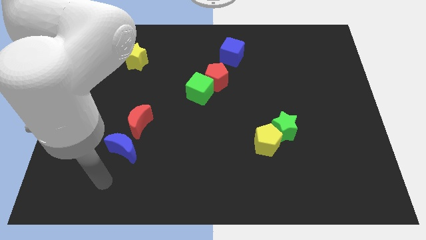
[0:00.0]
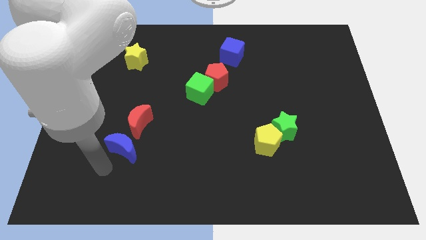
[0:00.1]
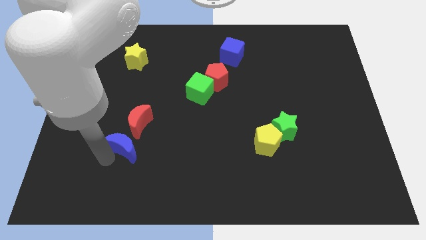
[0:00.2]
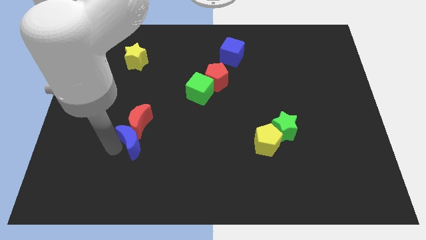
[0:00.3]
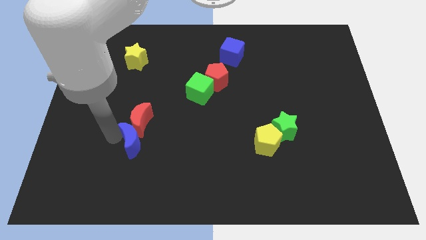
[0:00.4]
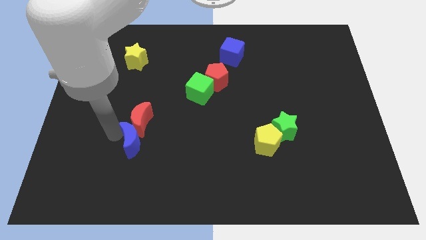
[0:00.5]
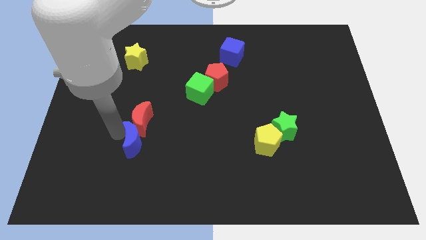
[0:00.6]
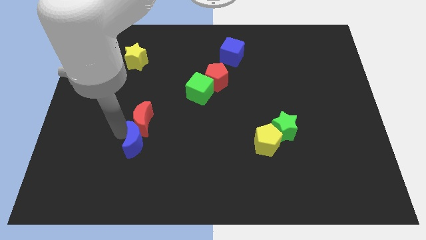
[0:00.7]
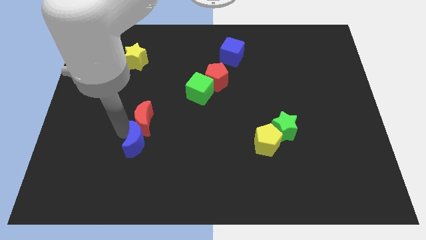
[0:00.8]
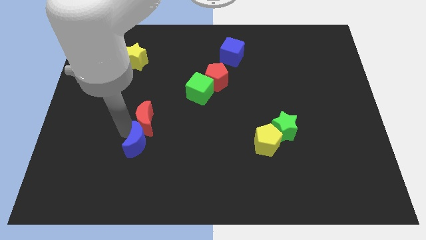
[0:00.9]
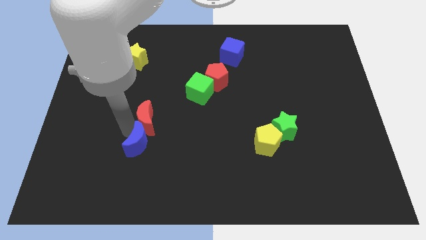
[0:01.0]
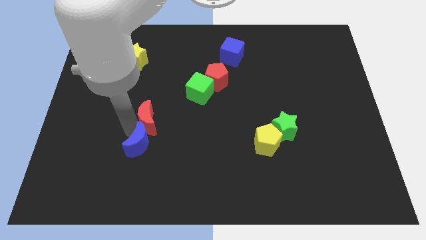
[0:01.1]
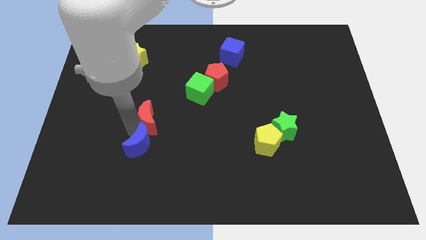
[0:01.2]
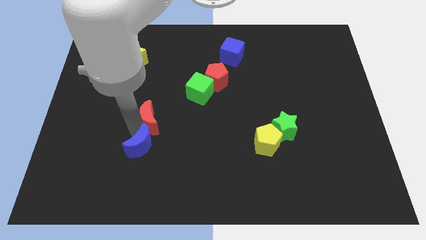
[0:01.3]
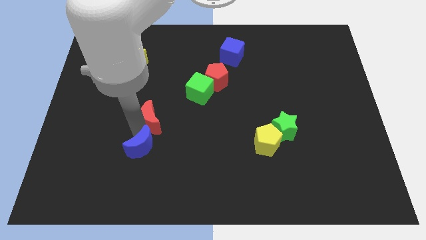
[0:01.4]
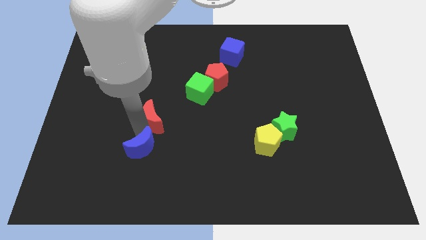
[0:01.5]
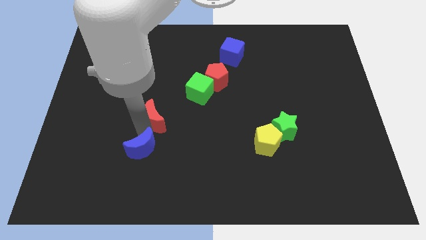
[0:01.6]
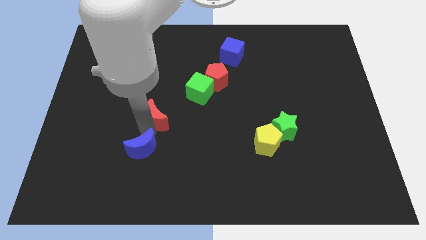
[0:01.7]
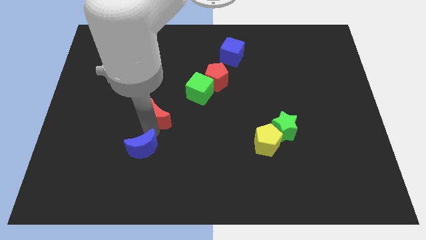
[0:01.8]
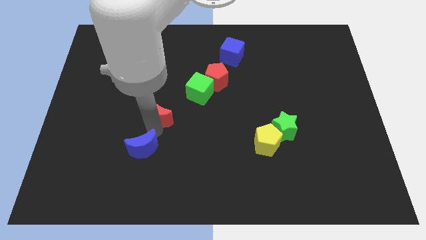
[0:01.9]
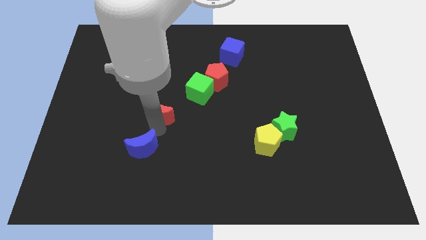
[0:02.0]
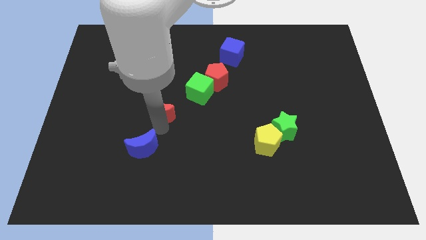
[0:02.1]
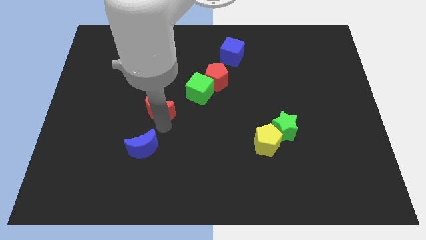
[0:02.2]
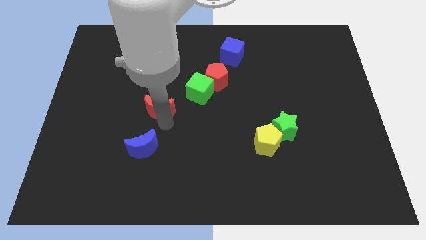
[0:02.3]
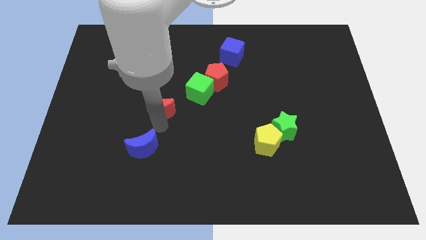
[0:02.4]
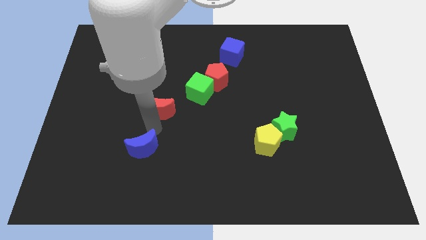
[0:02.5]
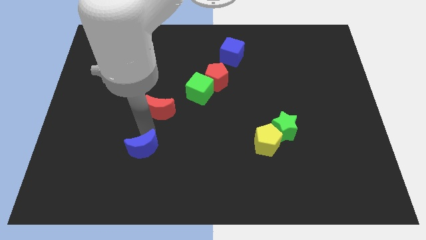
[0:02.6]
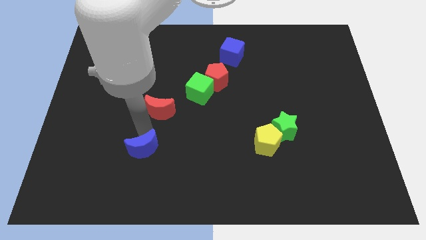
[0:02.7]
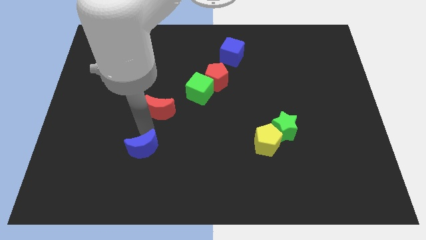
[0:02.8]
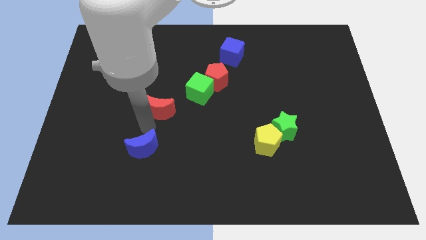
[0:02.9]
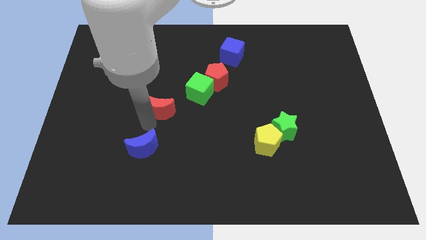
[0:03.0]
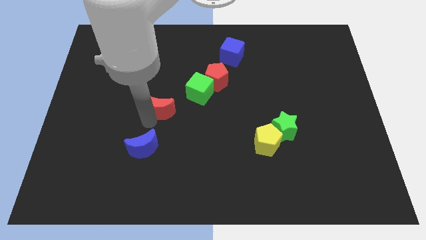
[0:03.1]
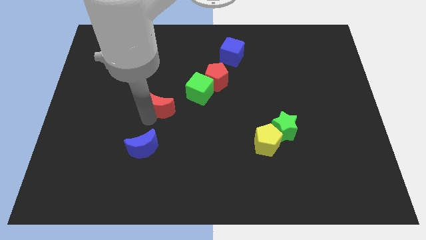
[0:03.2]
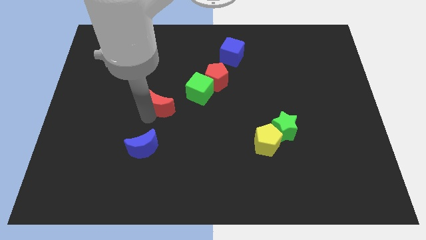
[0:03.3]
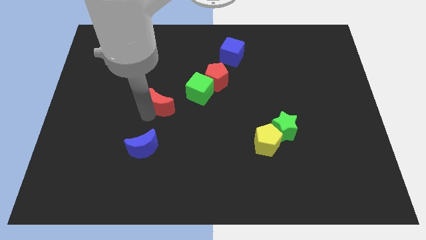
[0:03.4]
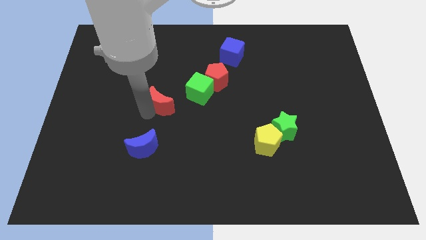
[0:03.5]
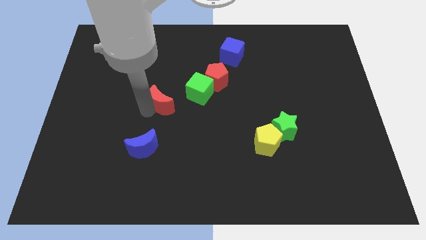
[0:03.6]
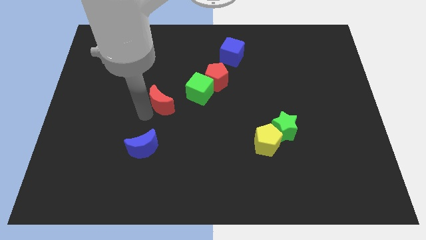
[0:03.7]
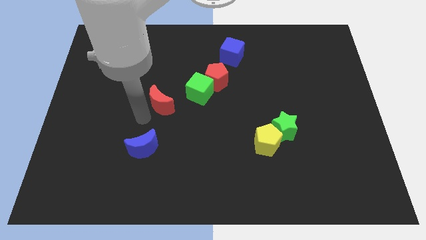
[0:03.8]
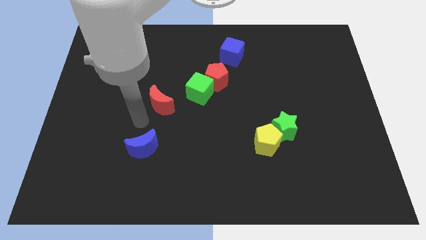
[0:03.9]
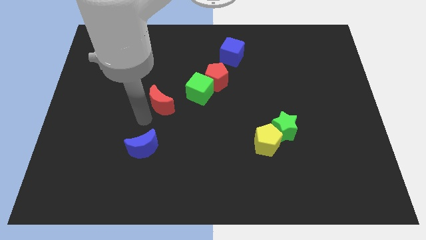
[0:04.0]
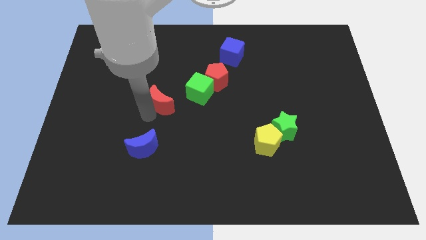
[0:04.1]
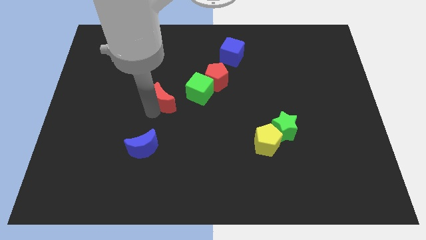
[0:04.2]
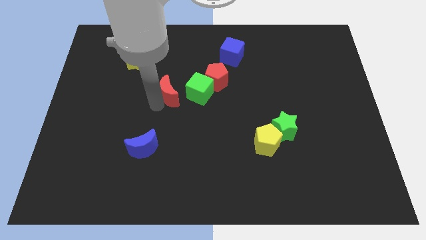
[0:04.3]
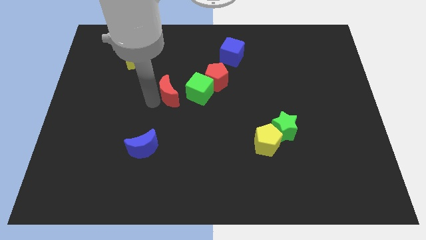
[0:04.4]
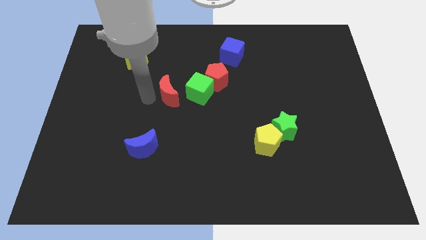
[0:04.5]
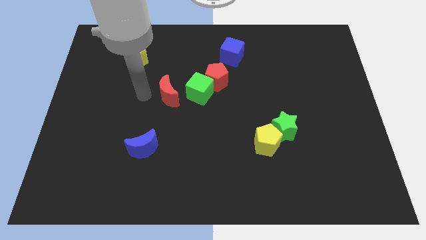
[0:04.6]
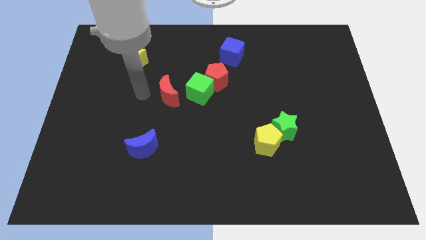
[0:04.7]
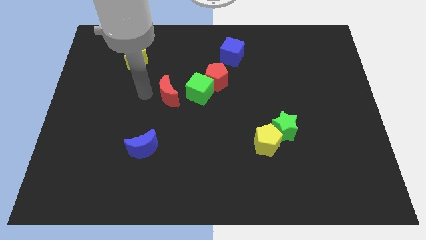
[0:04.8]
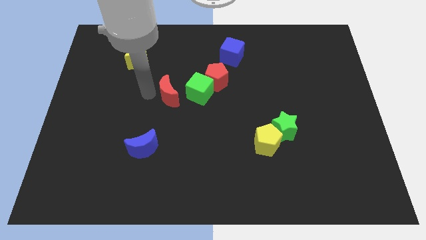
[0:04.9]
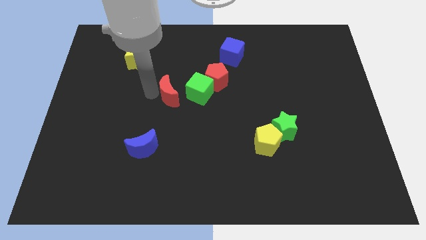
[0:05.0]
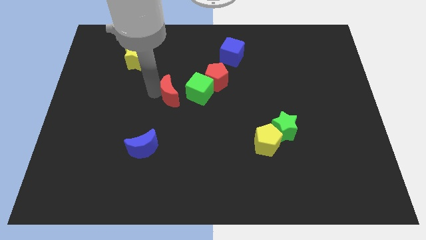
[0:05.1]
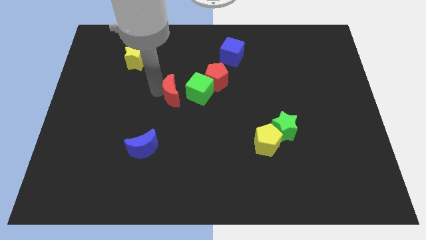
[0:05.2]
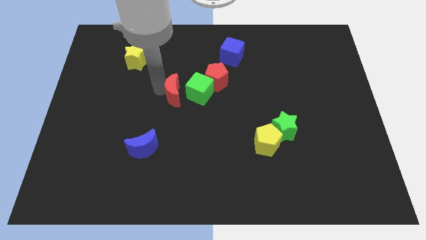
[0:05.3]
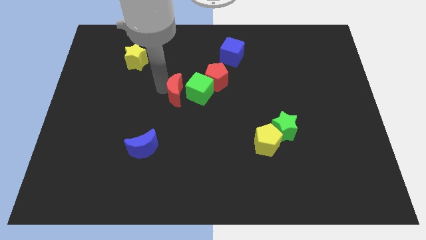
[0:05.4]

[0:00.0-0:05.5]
put the red moon to the bottom left of the red pentagon

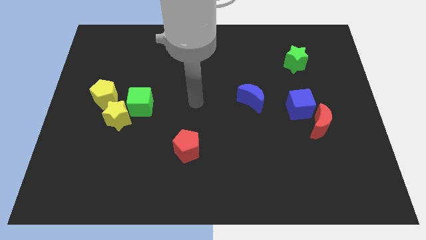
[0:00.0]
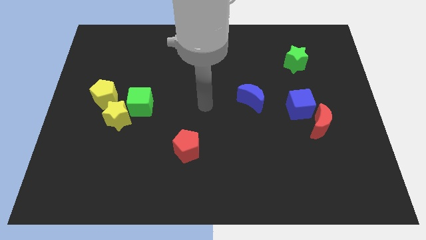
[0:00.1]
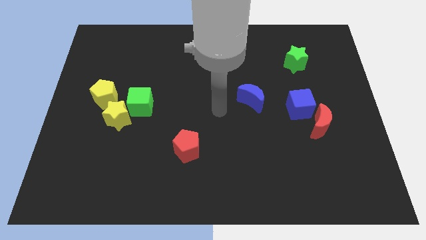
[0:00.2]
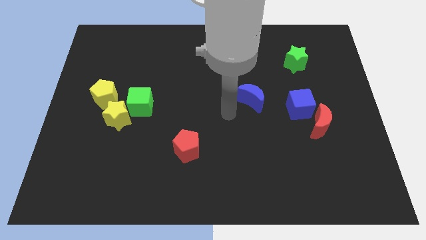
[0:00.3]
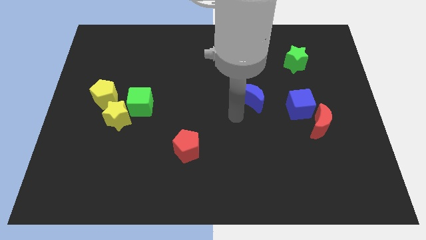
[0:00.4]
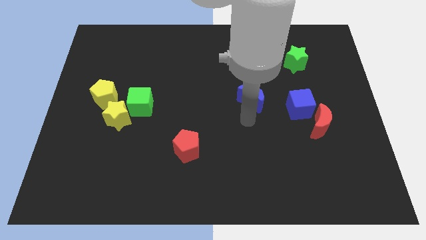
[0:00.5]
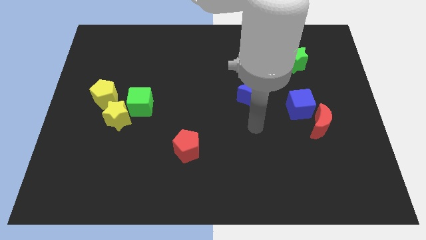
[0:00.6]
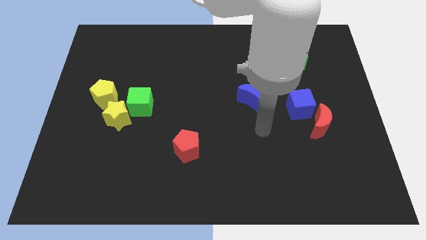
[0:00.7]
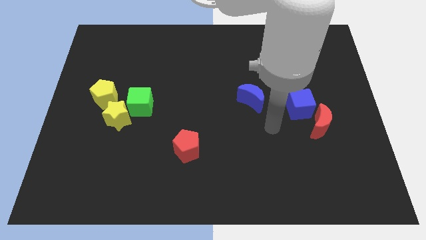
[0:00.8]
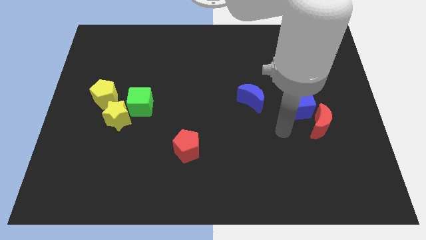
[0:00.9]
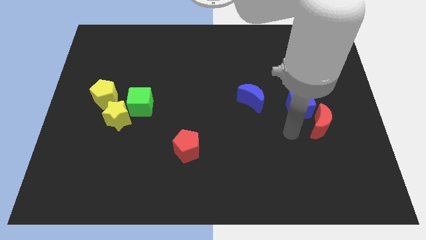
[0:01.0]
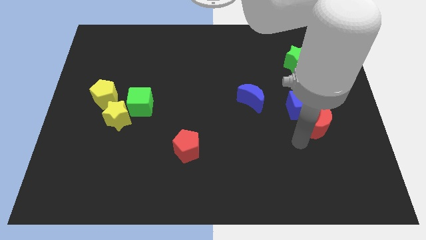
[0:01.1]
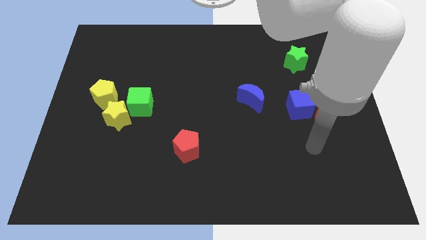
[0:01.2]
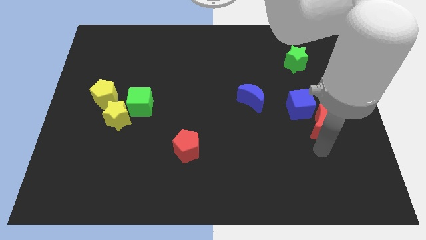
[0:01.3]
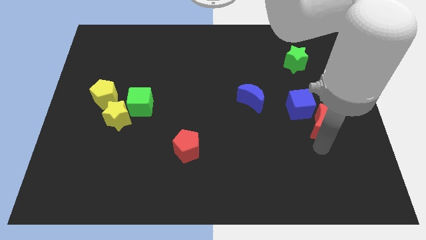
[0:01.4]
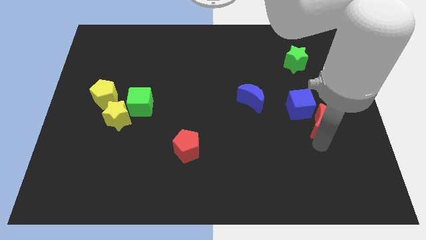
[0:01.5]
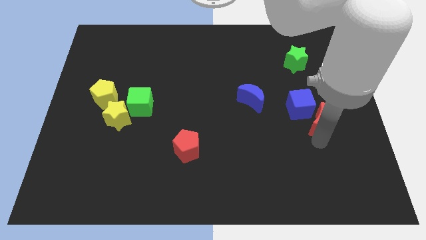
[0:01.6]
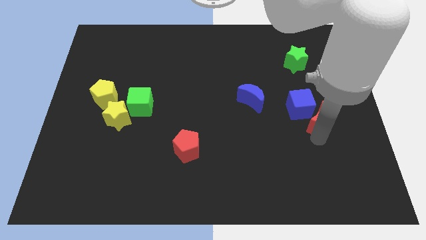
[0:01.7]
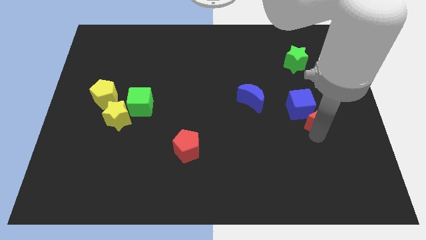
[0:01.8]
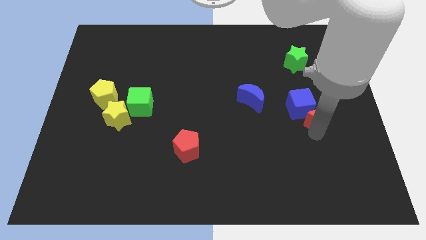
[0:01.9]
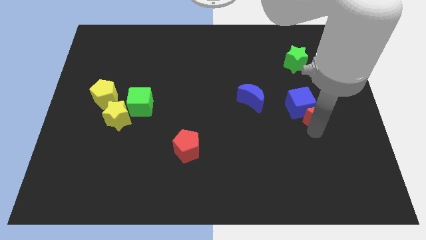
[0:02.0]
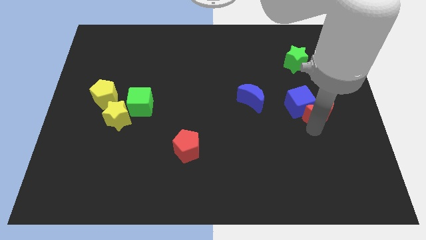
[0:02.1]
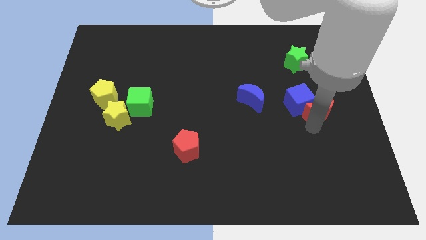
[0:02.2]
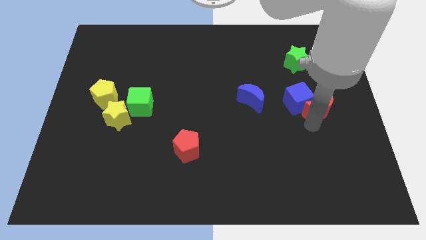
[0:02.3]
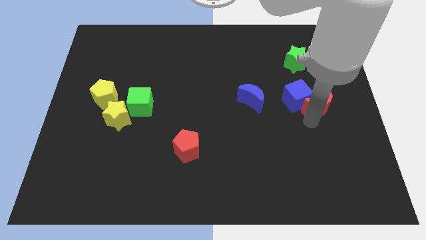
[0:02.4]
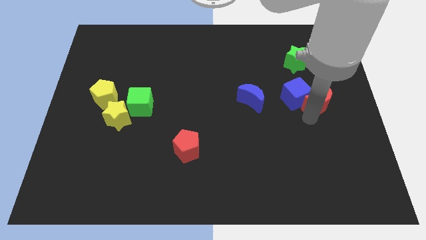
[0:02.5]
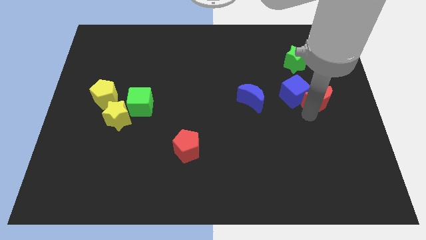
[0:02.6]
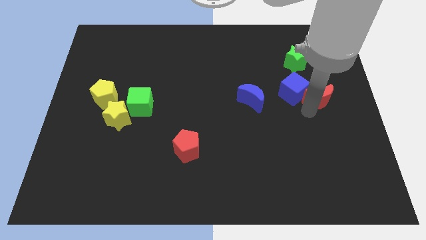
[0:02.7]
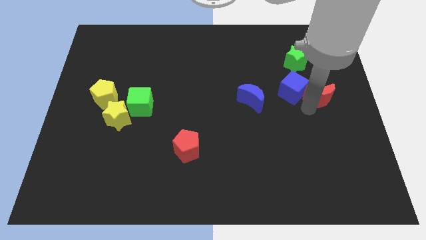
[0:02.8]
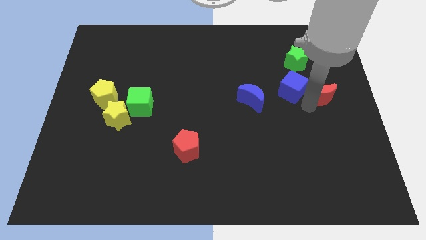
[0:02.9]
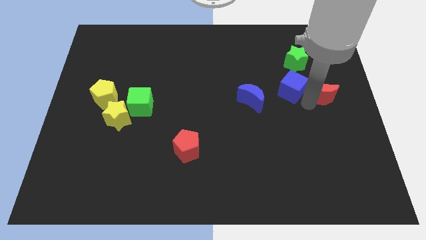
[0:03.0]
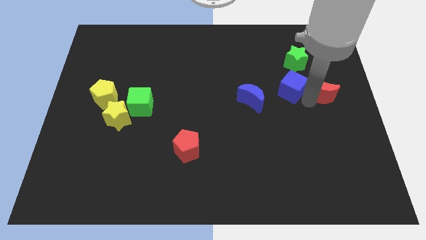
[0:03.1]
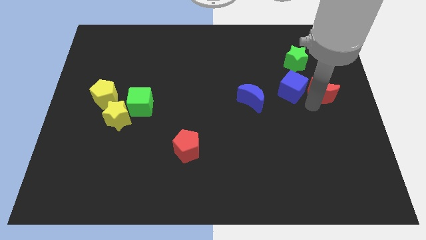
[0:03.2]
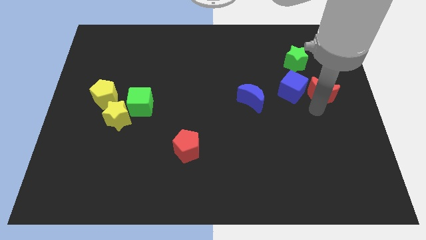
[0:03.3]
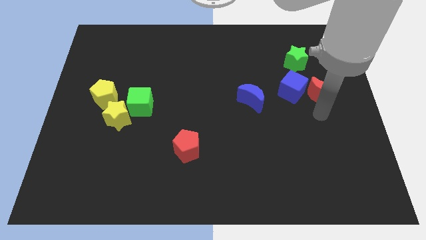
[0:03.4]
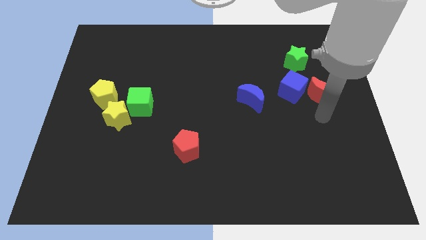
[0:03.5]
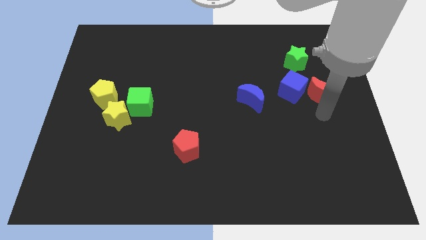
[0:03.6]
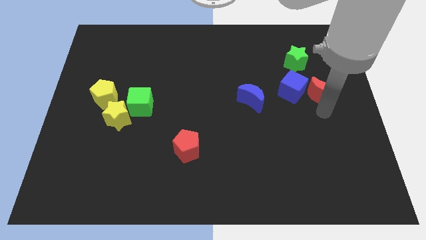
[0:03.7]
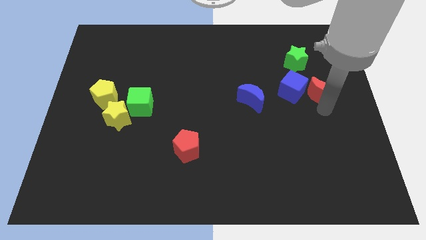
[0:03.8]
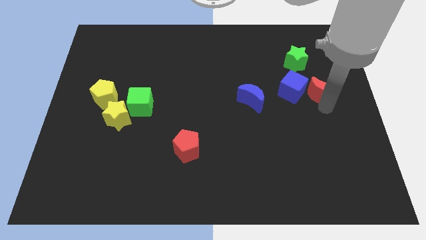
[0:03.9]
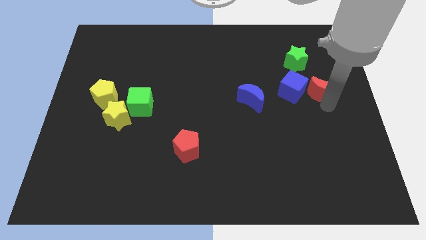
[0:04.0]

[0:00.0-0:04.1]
put the red moon to the bottom right side of the green star
